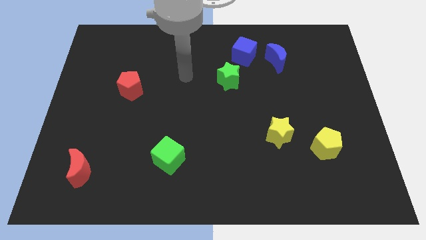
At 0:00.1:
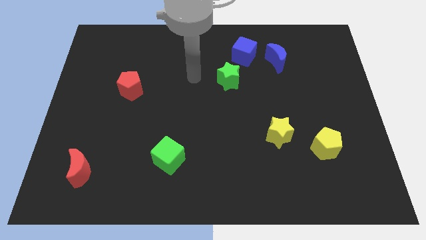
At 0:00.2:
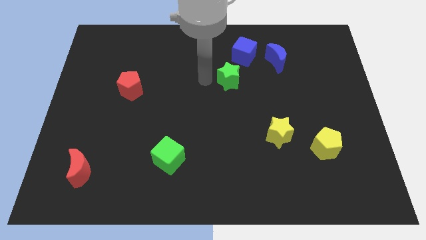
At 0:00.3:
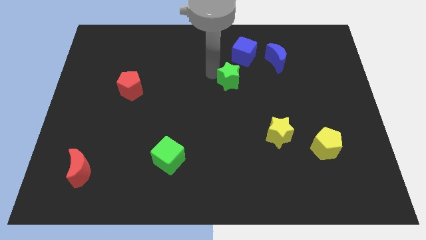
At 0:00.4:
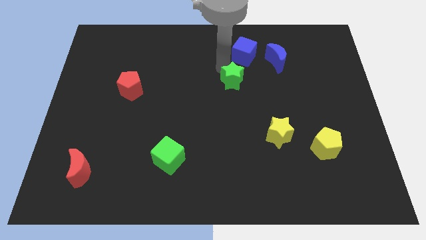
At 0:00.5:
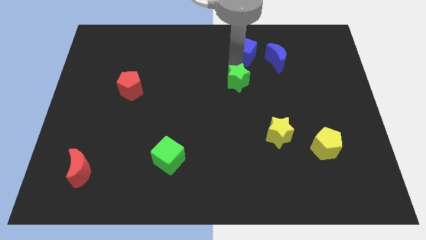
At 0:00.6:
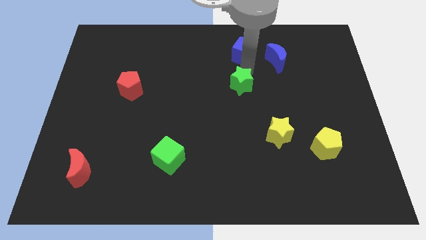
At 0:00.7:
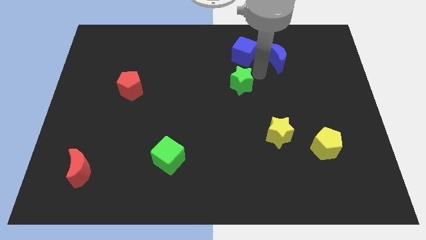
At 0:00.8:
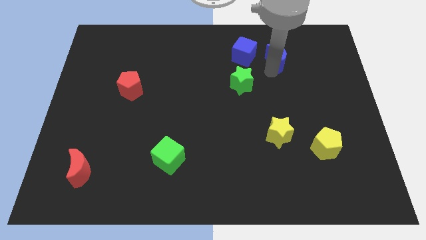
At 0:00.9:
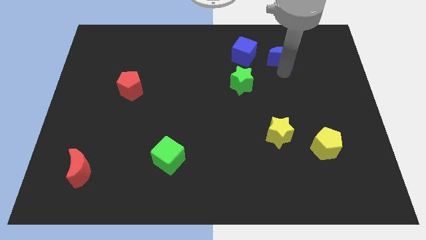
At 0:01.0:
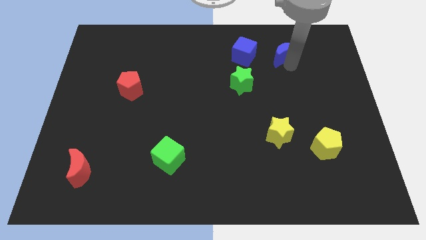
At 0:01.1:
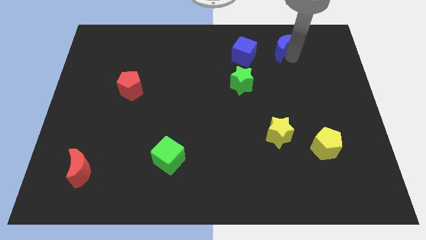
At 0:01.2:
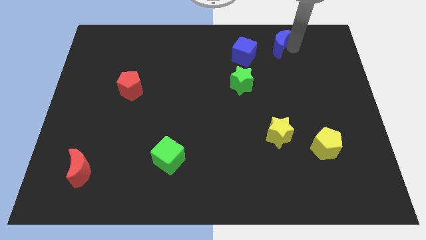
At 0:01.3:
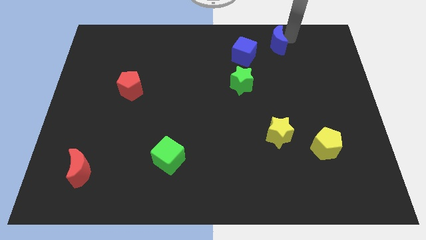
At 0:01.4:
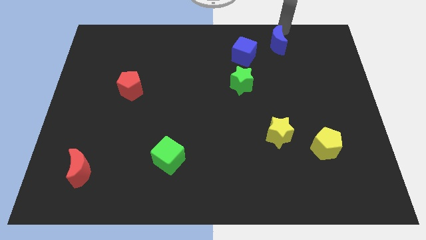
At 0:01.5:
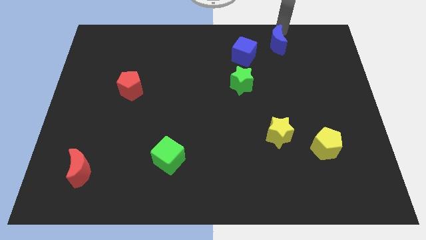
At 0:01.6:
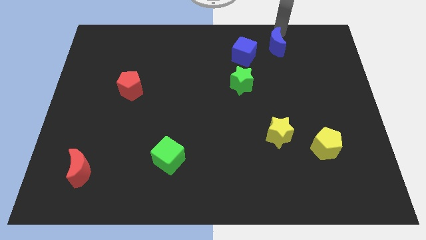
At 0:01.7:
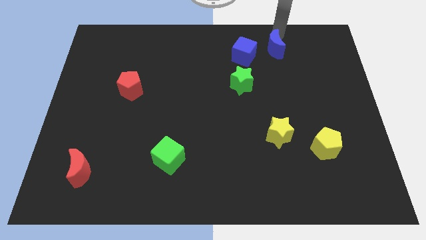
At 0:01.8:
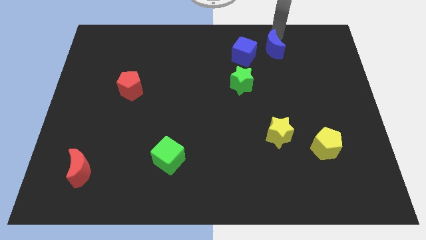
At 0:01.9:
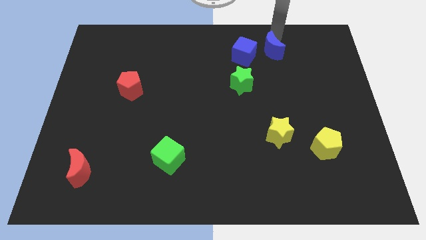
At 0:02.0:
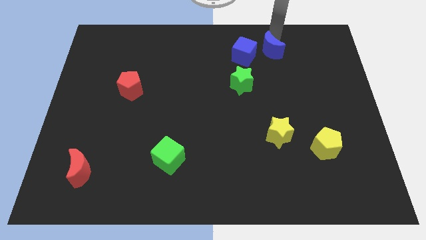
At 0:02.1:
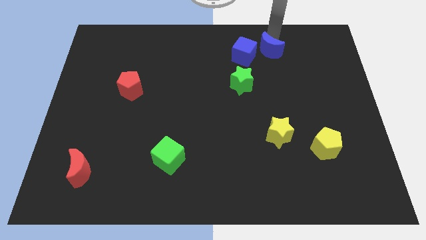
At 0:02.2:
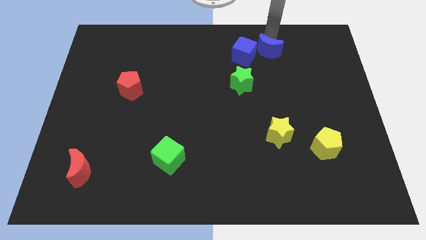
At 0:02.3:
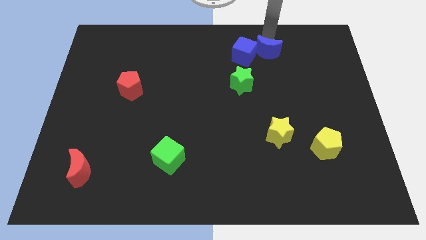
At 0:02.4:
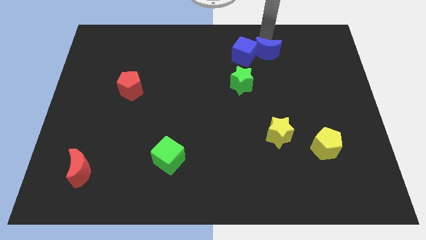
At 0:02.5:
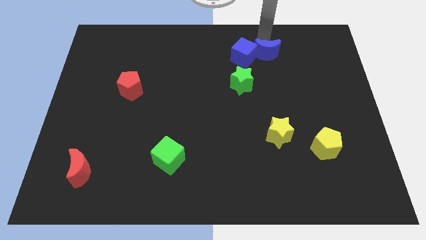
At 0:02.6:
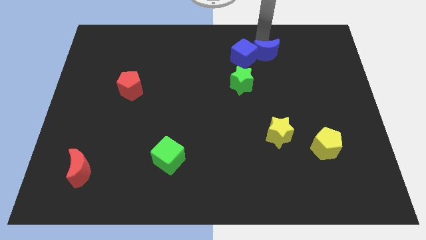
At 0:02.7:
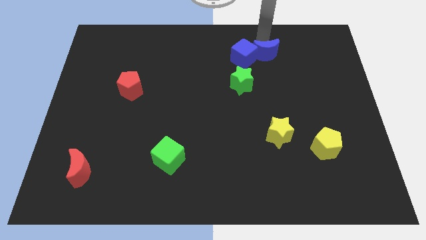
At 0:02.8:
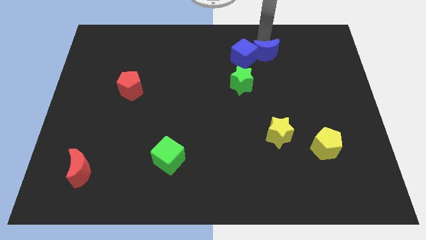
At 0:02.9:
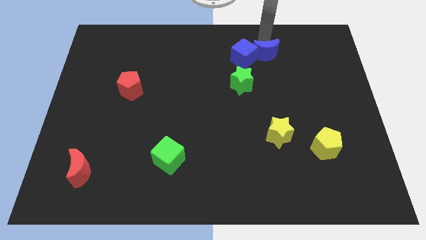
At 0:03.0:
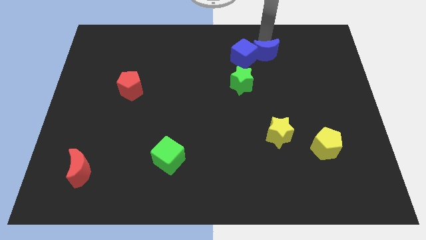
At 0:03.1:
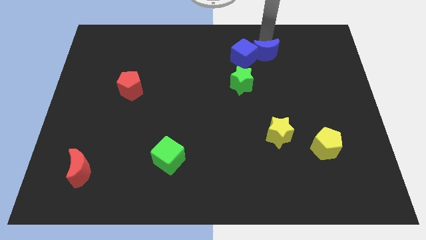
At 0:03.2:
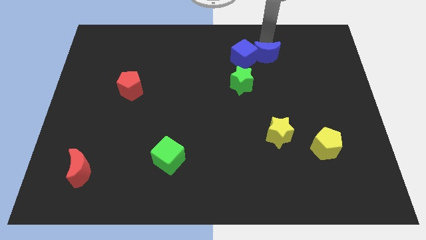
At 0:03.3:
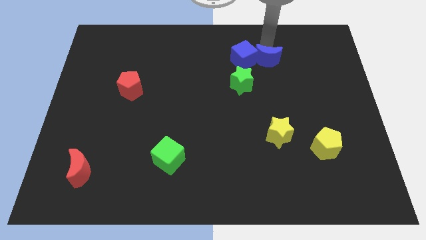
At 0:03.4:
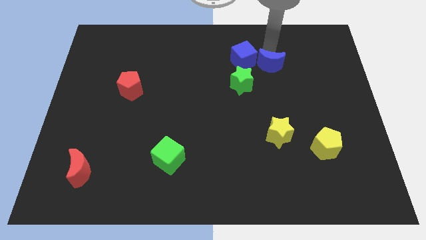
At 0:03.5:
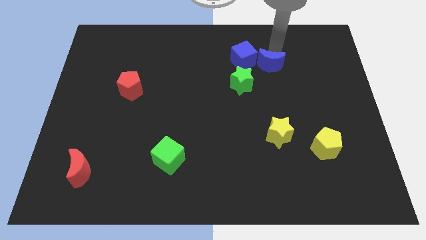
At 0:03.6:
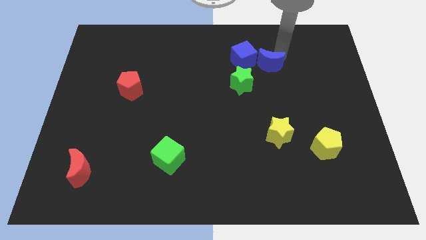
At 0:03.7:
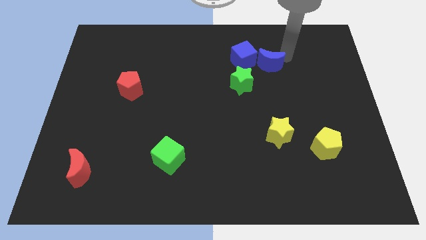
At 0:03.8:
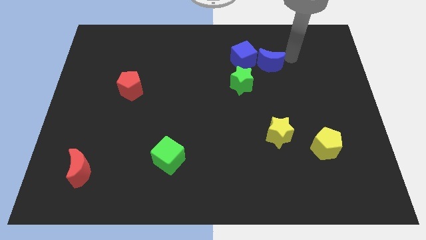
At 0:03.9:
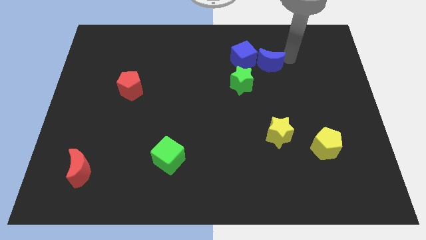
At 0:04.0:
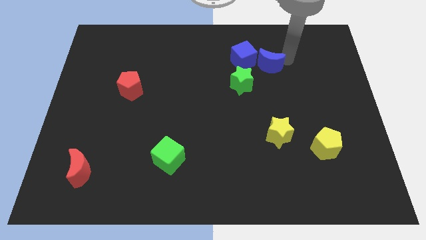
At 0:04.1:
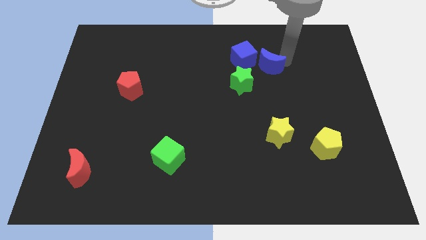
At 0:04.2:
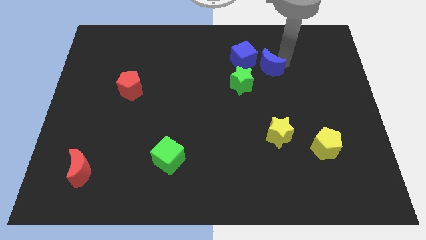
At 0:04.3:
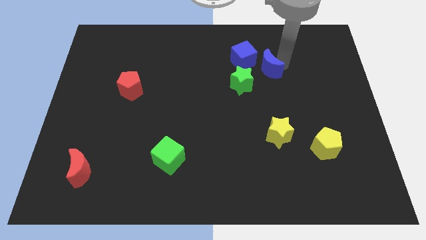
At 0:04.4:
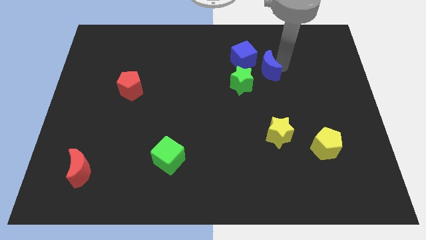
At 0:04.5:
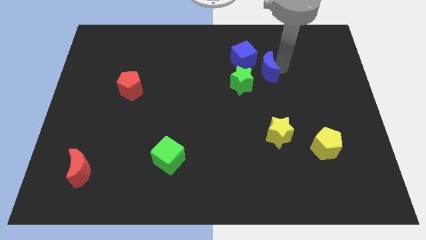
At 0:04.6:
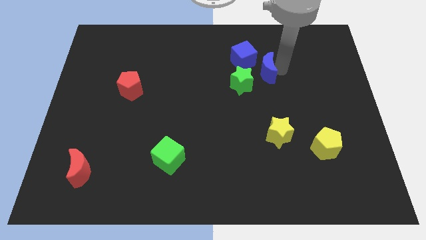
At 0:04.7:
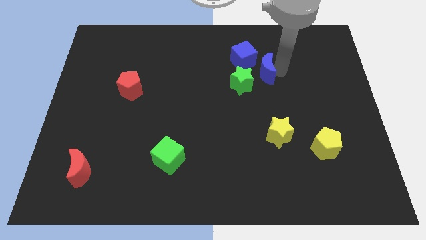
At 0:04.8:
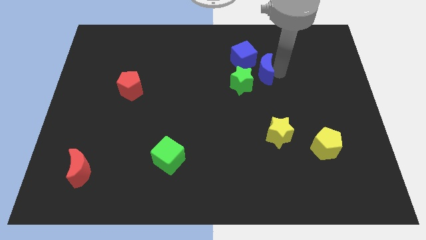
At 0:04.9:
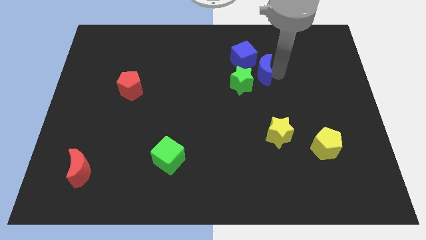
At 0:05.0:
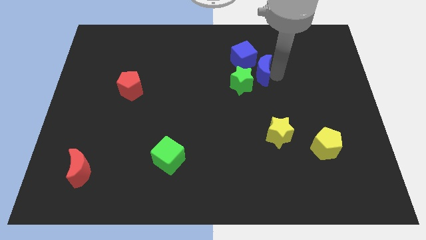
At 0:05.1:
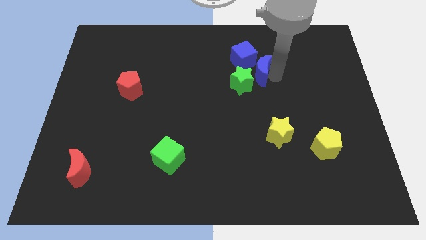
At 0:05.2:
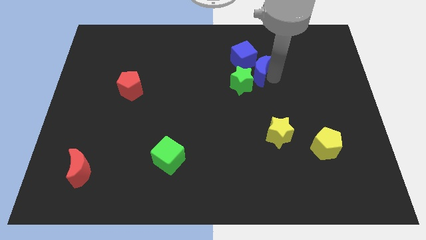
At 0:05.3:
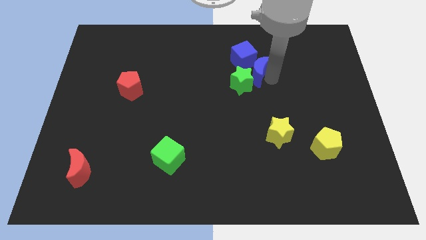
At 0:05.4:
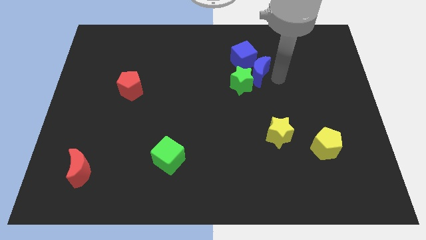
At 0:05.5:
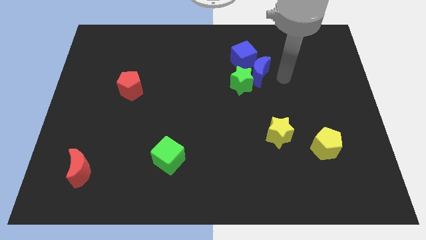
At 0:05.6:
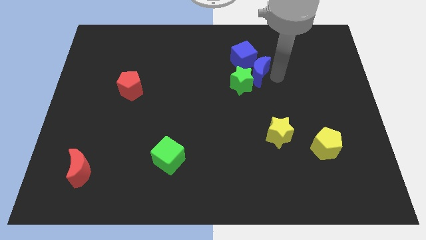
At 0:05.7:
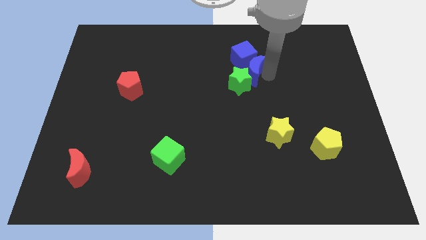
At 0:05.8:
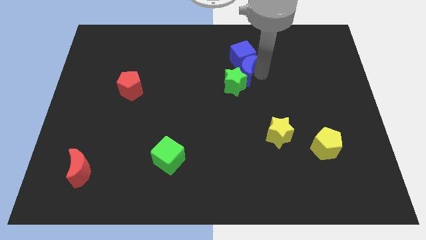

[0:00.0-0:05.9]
push the blue moon to the left a bit

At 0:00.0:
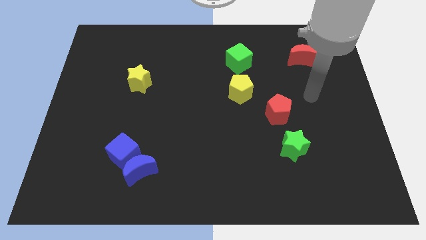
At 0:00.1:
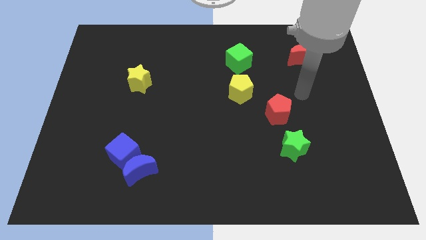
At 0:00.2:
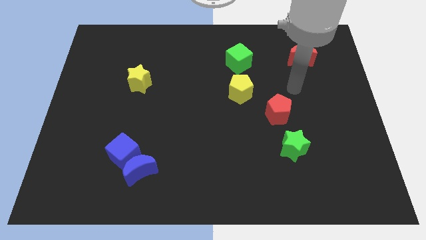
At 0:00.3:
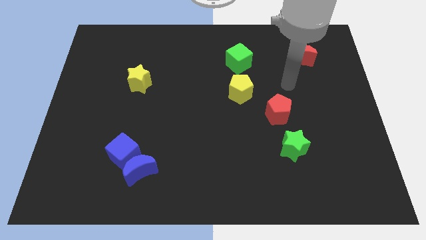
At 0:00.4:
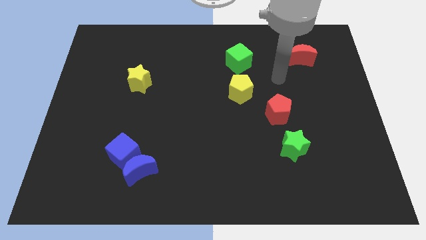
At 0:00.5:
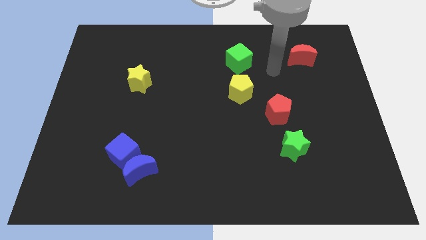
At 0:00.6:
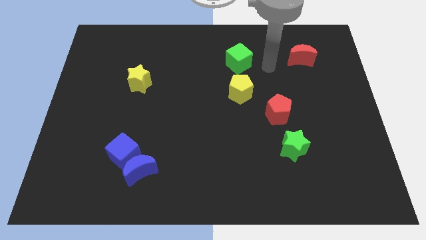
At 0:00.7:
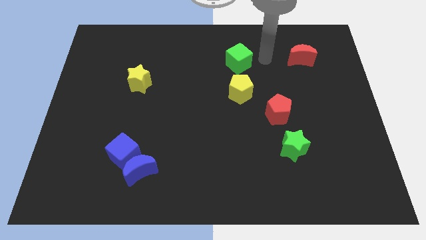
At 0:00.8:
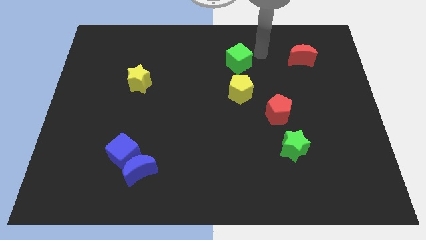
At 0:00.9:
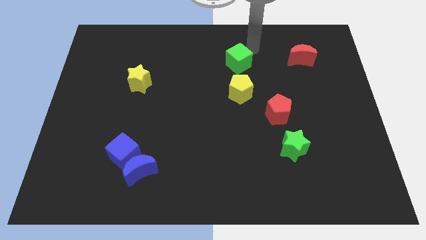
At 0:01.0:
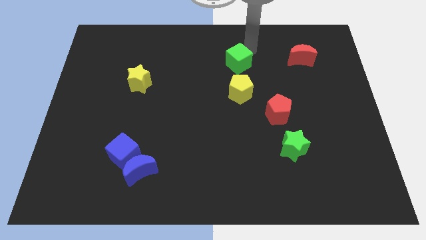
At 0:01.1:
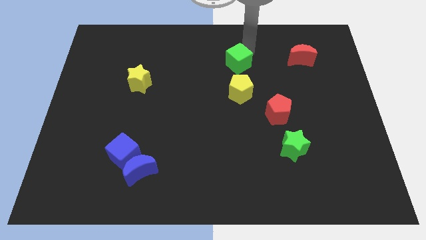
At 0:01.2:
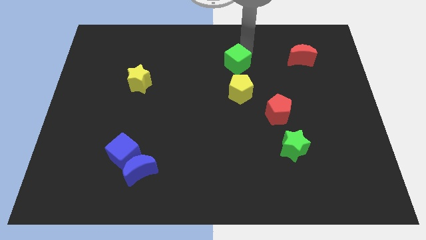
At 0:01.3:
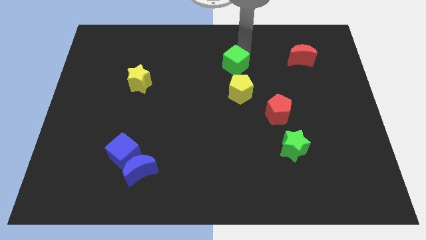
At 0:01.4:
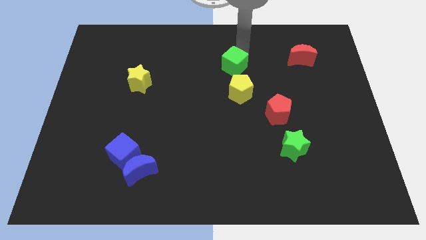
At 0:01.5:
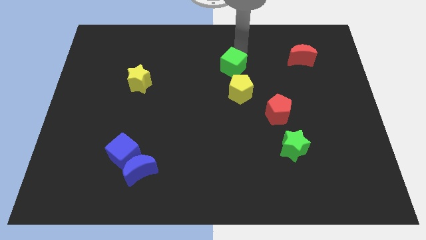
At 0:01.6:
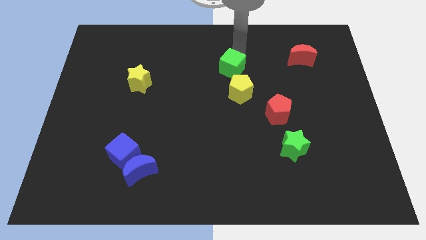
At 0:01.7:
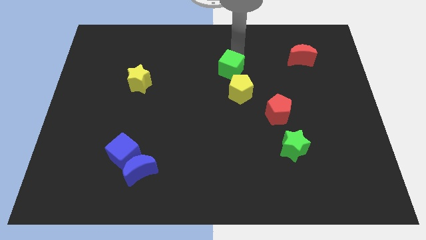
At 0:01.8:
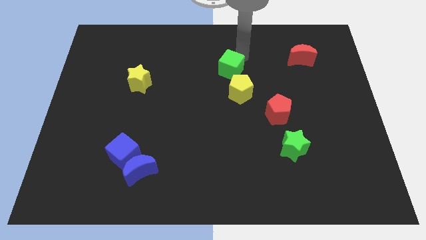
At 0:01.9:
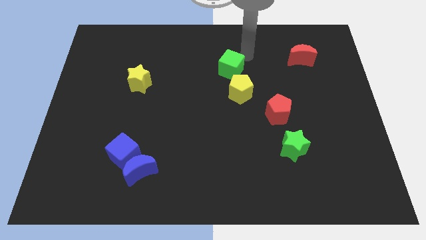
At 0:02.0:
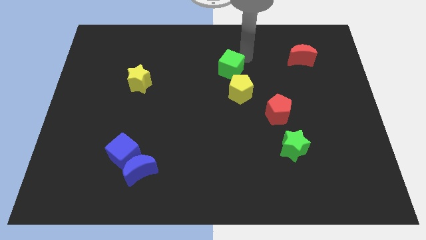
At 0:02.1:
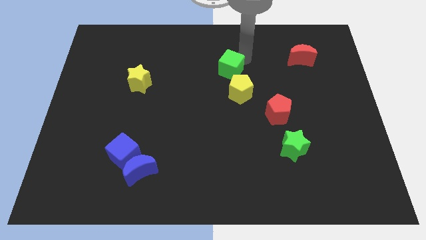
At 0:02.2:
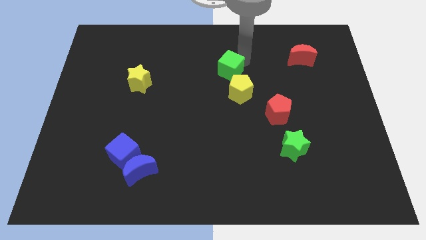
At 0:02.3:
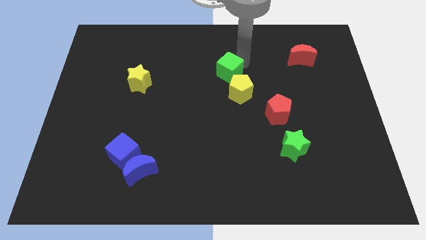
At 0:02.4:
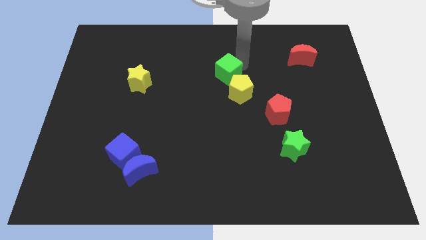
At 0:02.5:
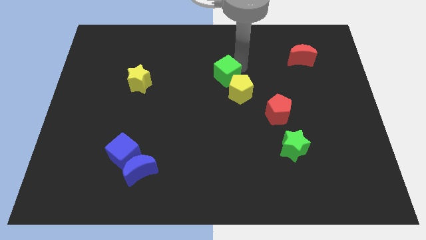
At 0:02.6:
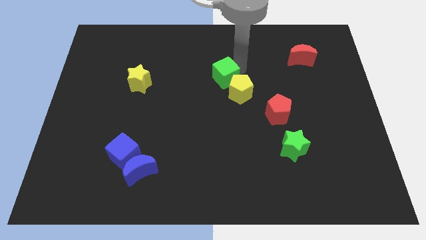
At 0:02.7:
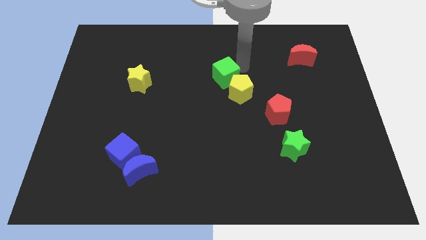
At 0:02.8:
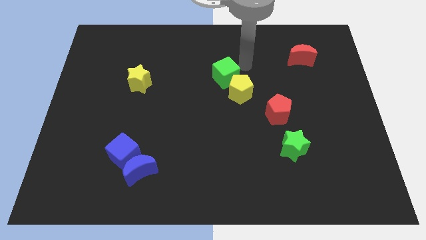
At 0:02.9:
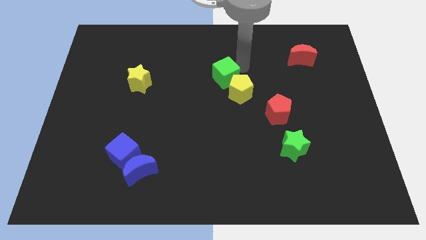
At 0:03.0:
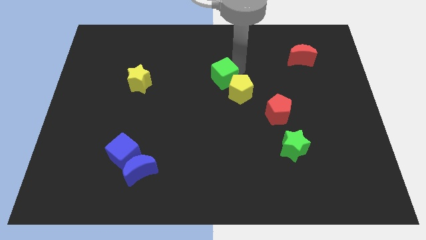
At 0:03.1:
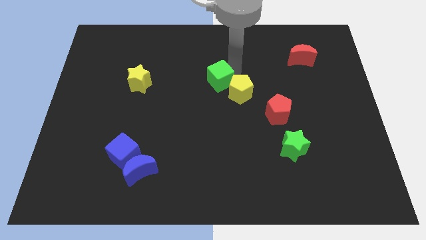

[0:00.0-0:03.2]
slide the green cube a little down and to the left
